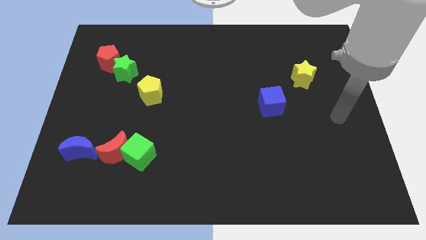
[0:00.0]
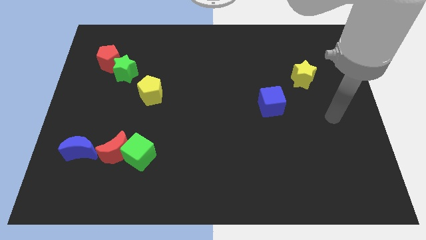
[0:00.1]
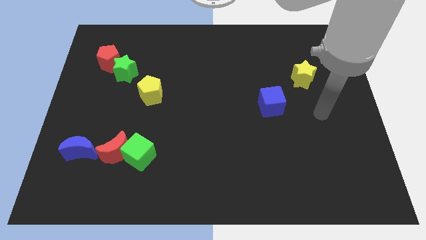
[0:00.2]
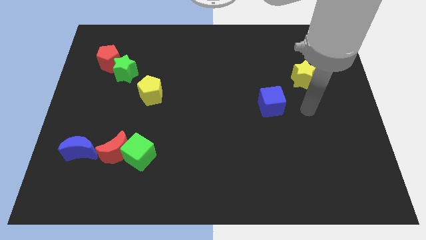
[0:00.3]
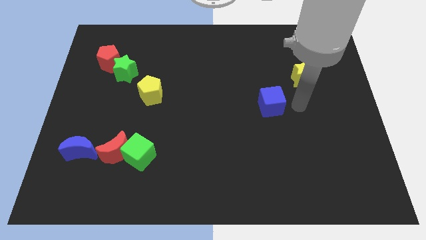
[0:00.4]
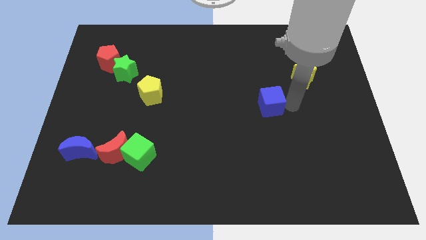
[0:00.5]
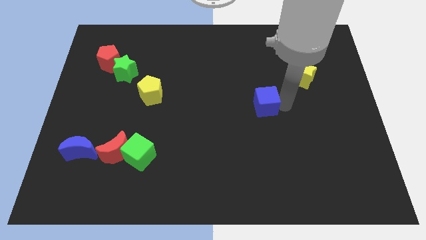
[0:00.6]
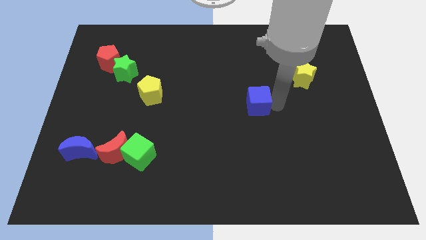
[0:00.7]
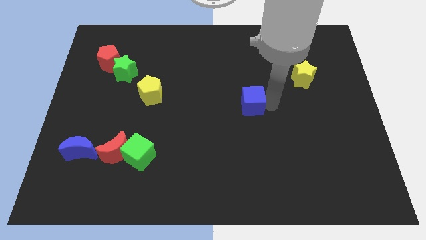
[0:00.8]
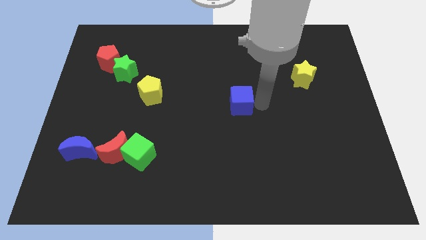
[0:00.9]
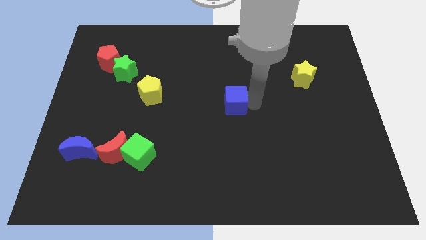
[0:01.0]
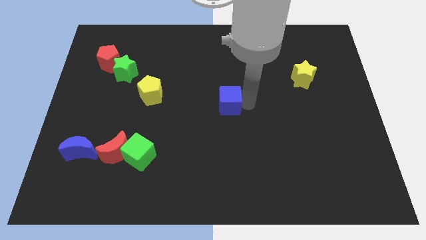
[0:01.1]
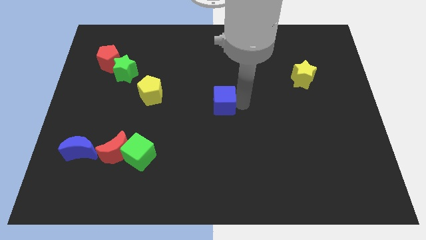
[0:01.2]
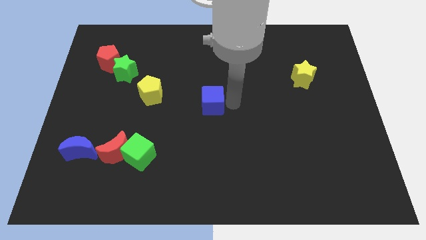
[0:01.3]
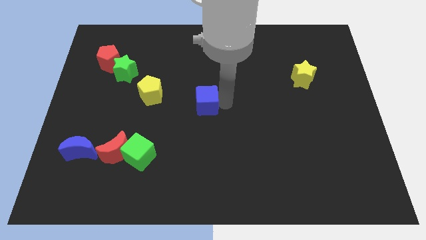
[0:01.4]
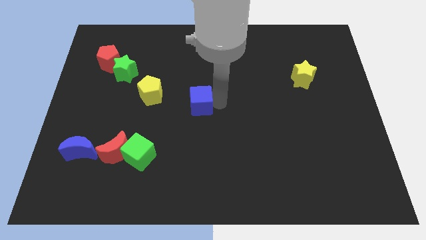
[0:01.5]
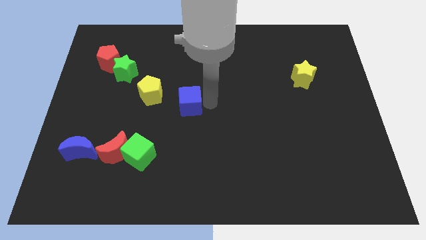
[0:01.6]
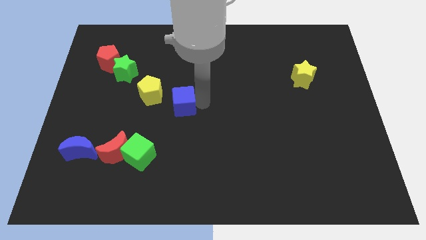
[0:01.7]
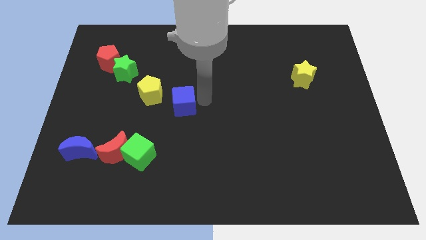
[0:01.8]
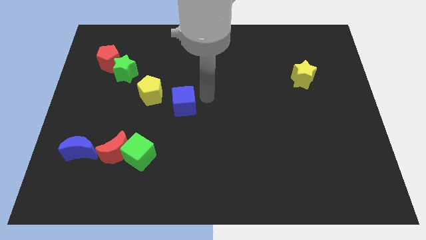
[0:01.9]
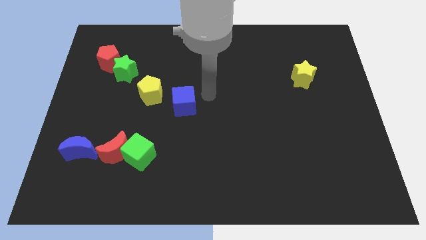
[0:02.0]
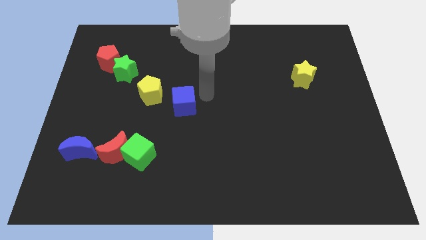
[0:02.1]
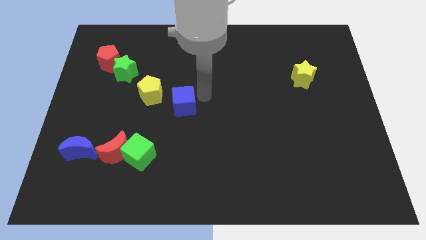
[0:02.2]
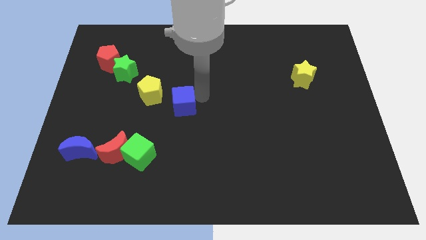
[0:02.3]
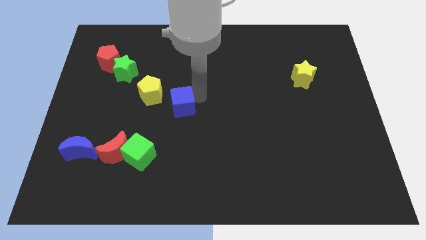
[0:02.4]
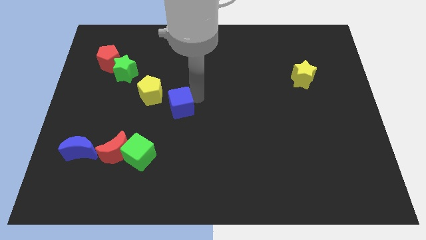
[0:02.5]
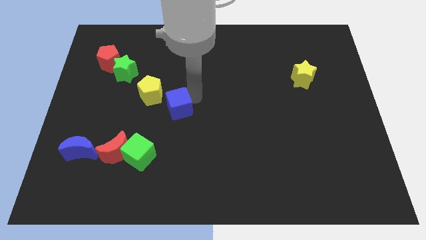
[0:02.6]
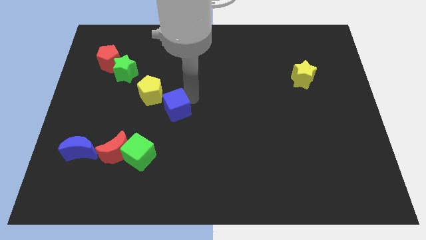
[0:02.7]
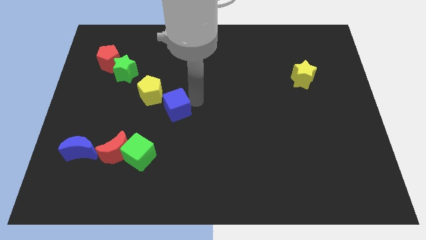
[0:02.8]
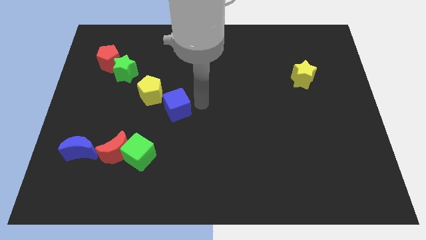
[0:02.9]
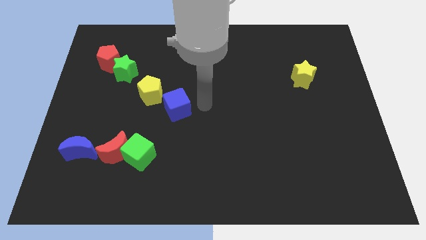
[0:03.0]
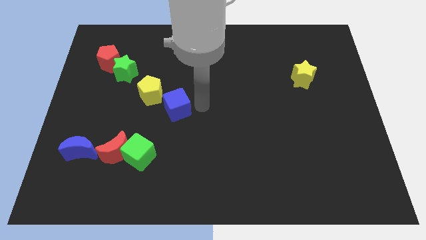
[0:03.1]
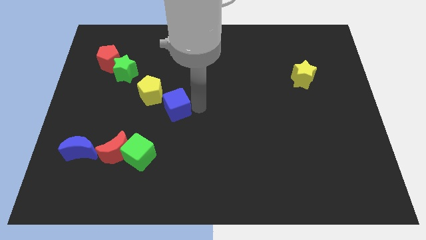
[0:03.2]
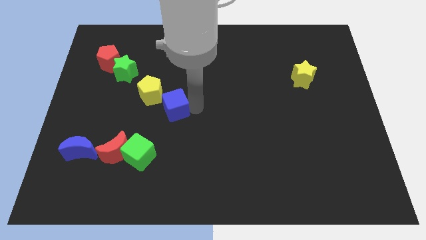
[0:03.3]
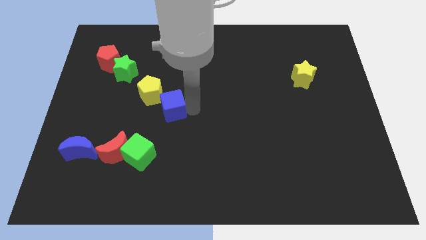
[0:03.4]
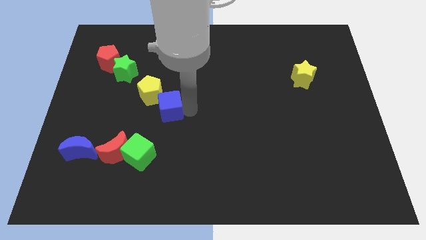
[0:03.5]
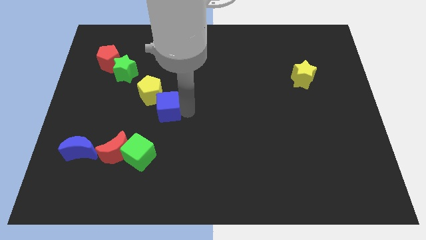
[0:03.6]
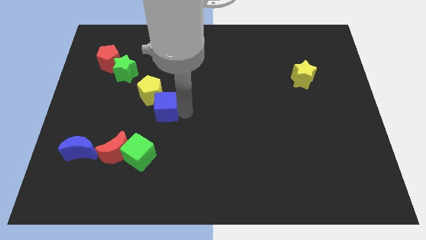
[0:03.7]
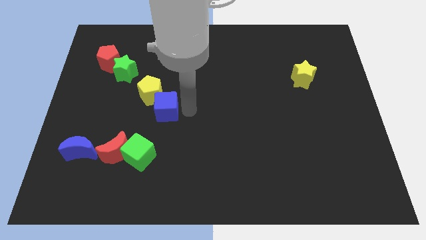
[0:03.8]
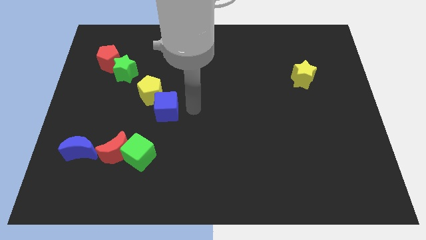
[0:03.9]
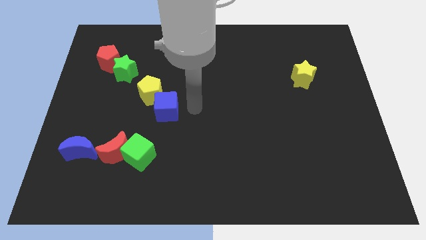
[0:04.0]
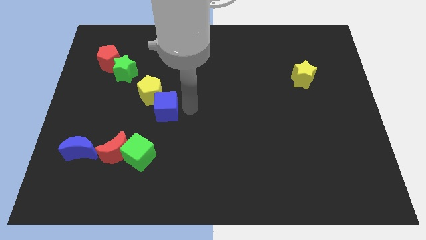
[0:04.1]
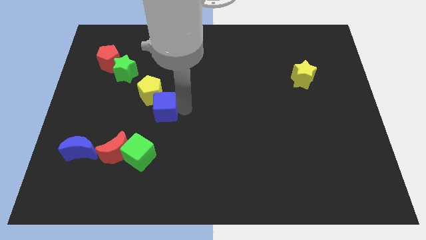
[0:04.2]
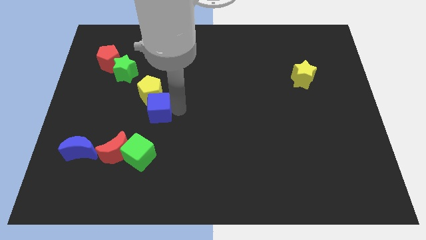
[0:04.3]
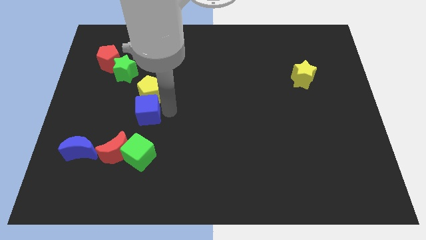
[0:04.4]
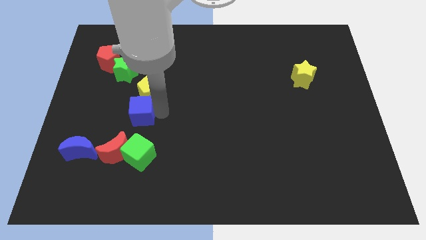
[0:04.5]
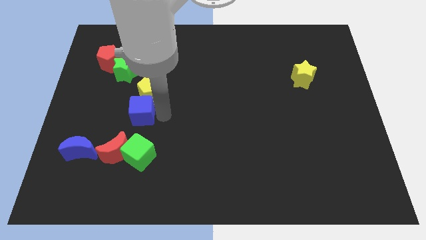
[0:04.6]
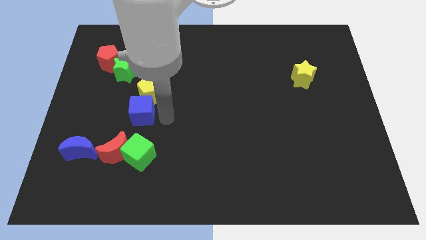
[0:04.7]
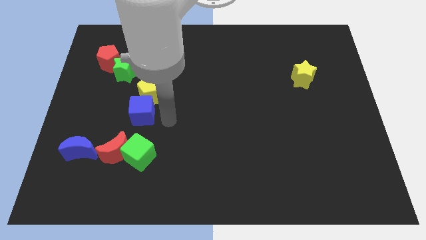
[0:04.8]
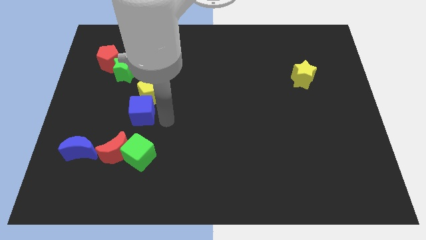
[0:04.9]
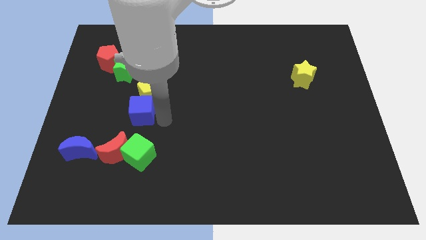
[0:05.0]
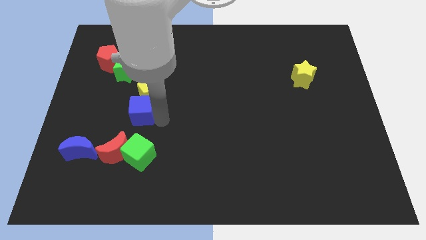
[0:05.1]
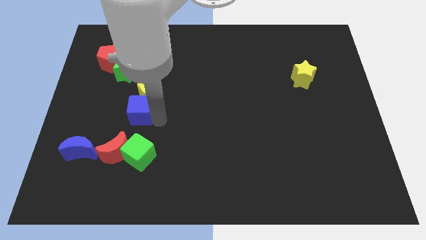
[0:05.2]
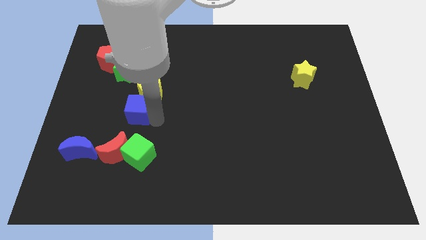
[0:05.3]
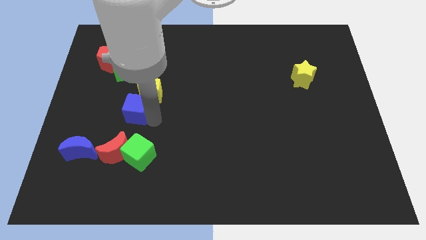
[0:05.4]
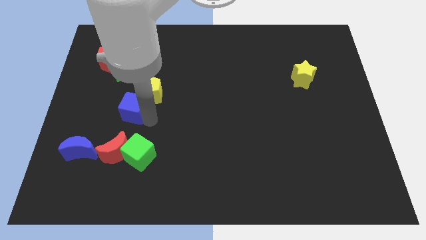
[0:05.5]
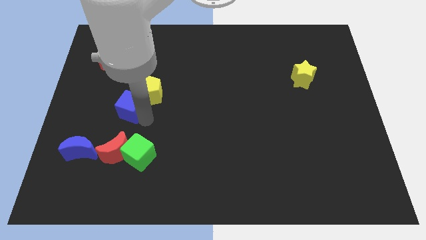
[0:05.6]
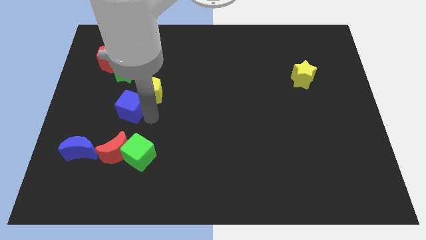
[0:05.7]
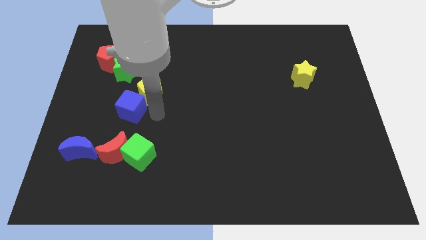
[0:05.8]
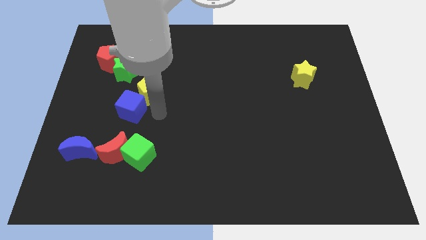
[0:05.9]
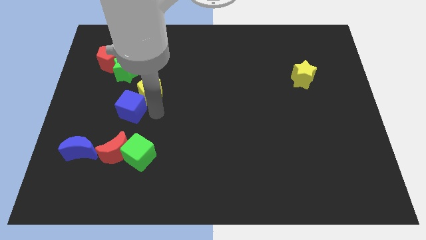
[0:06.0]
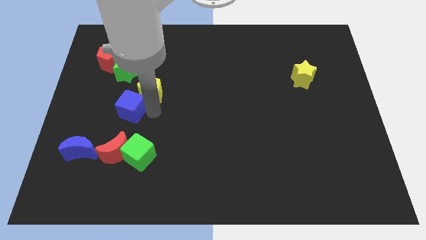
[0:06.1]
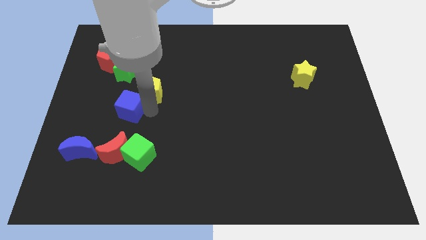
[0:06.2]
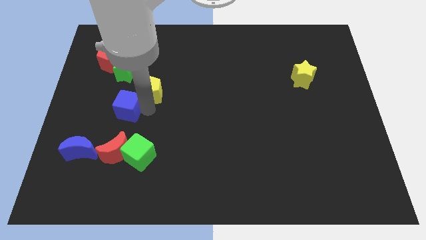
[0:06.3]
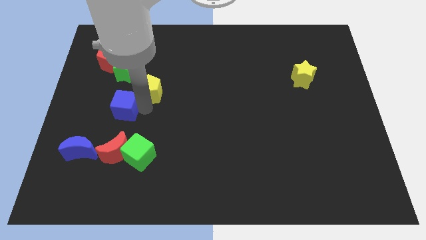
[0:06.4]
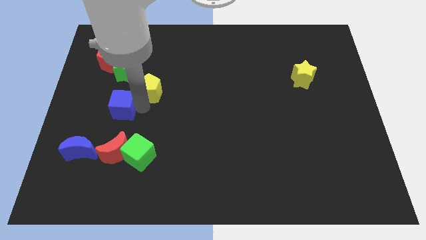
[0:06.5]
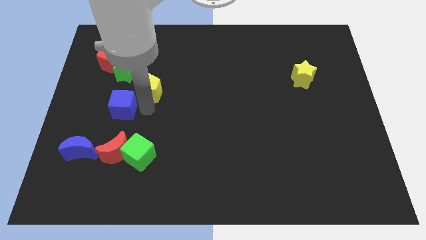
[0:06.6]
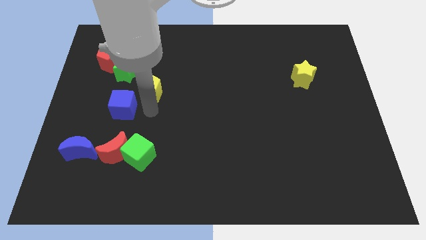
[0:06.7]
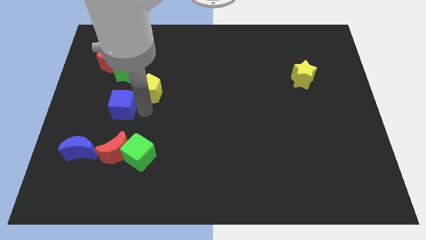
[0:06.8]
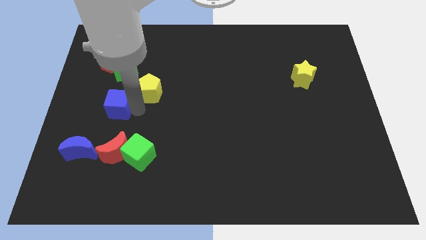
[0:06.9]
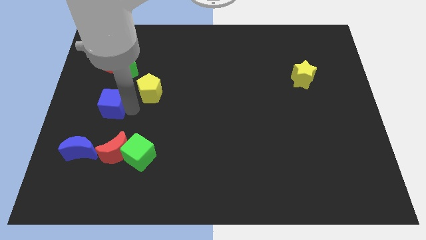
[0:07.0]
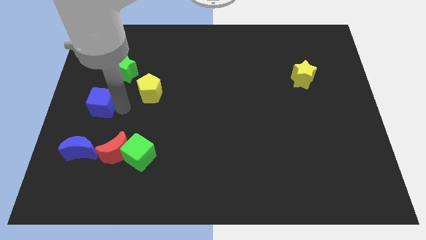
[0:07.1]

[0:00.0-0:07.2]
push the blue cube to the center left
